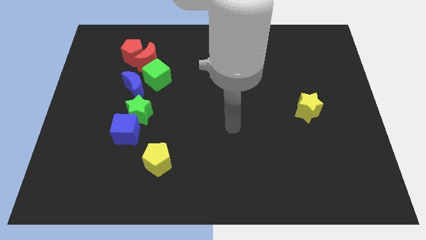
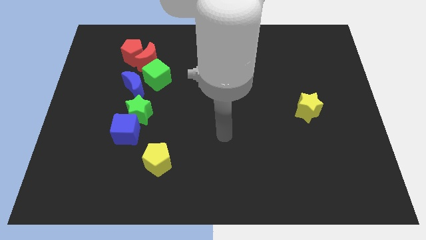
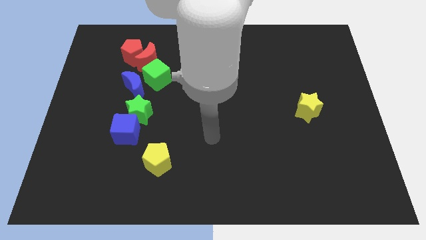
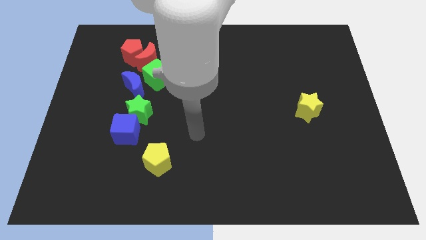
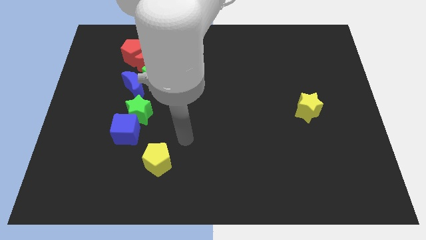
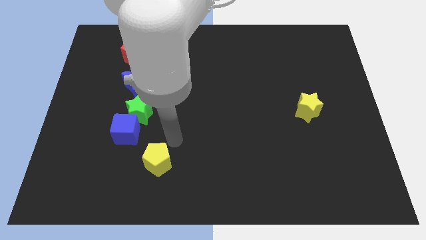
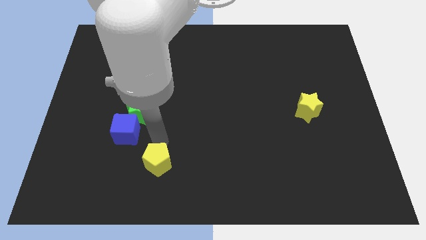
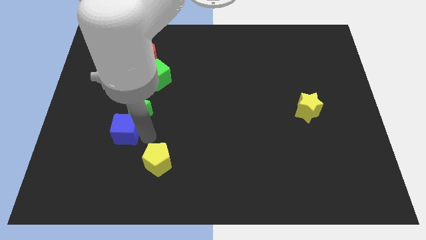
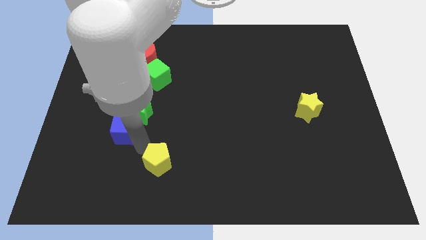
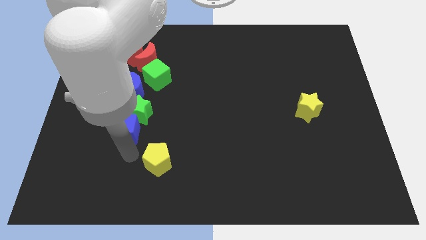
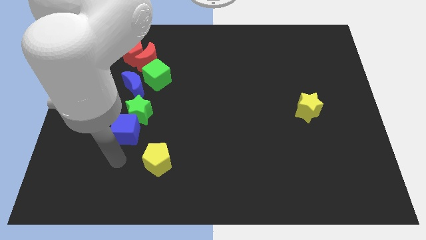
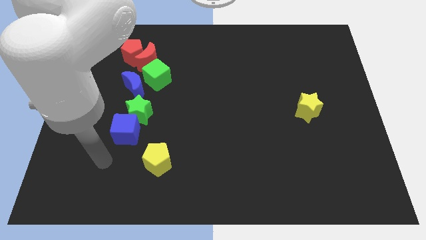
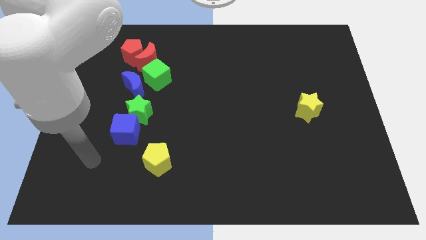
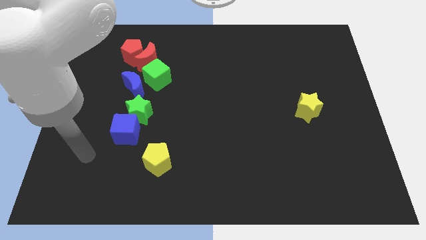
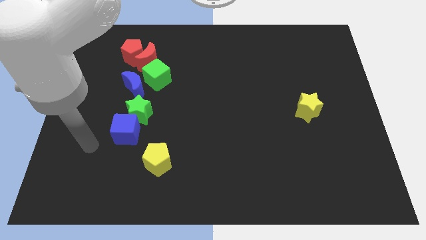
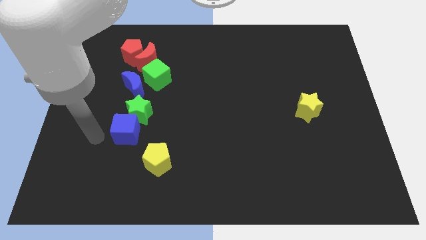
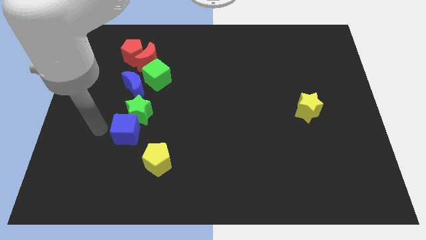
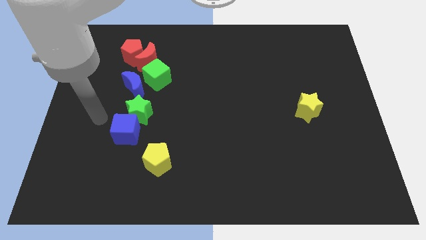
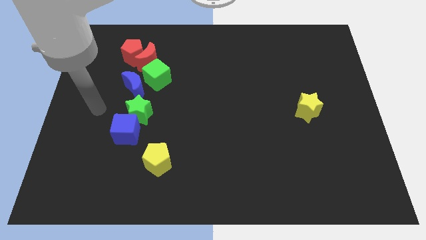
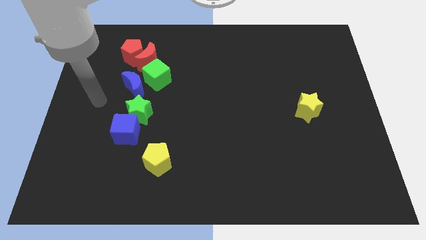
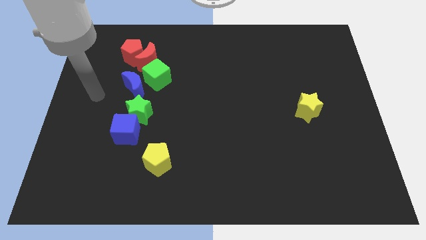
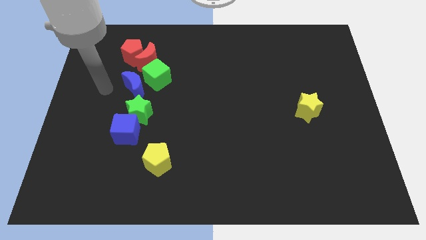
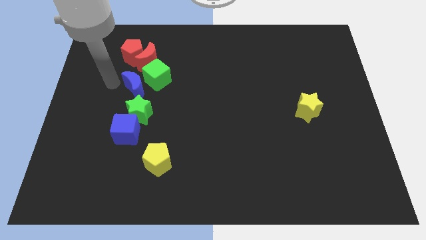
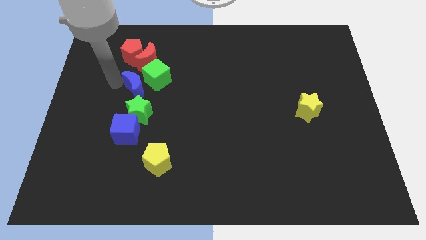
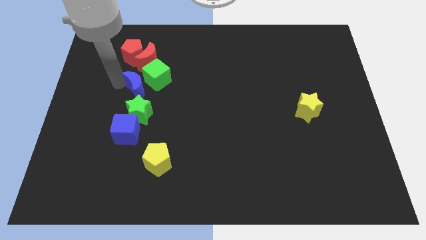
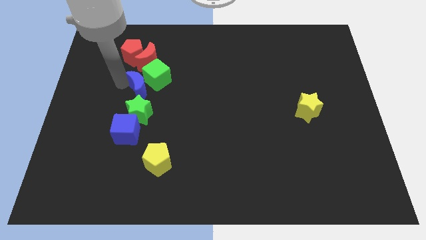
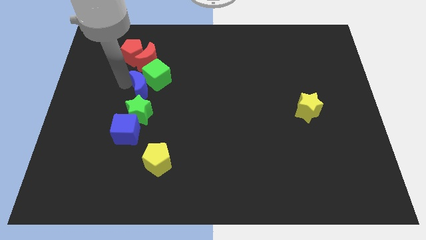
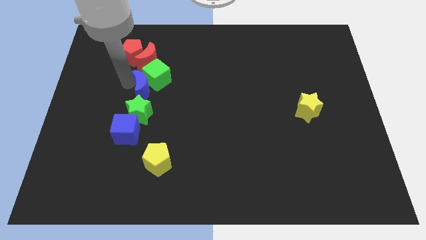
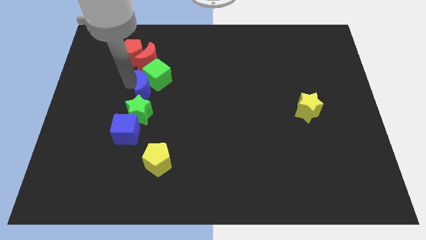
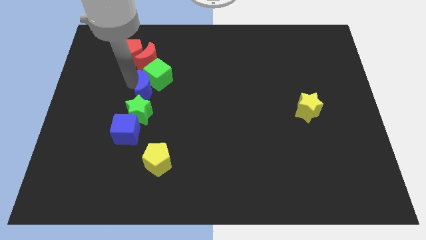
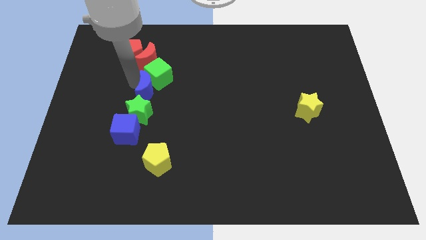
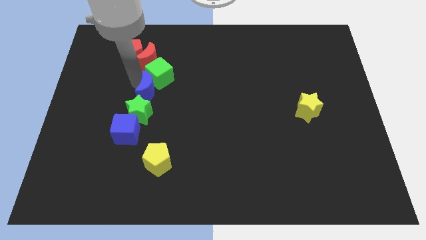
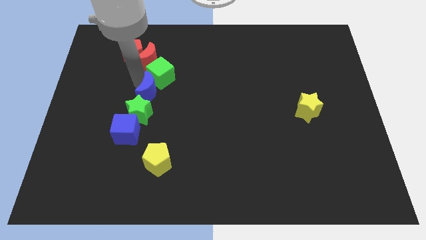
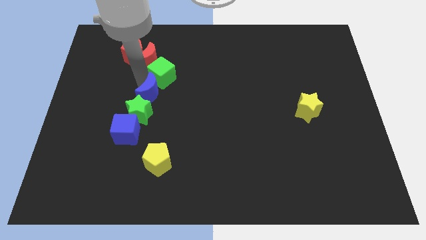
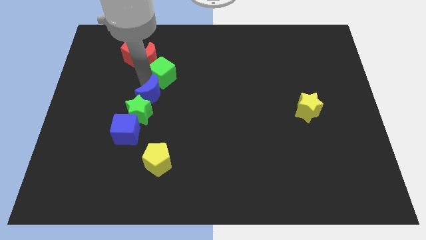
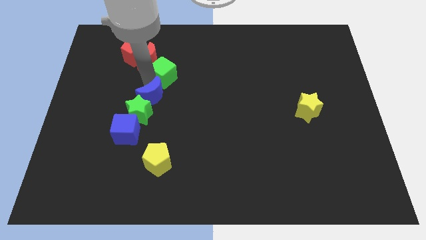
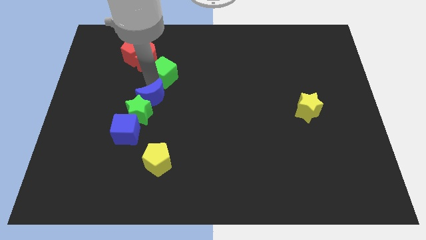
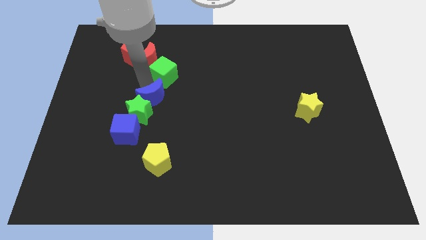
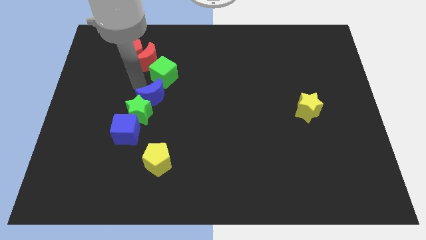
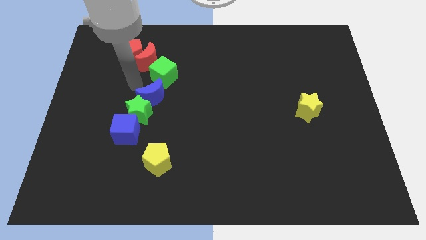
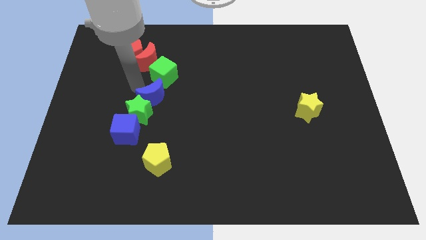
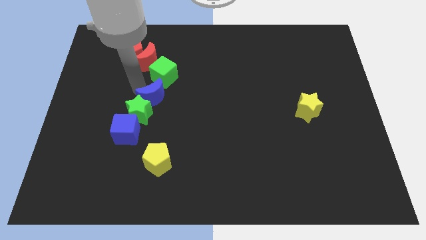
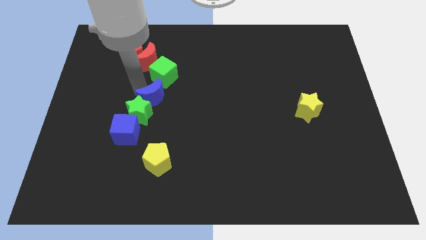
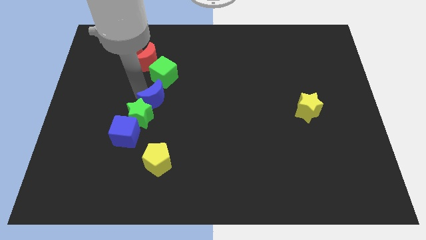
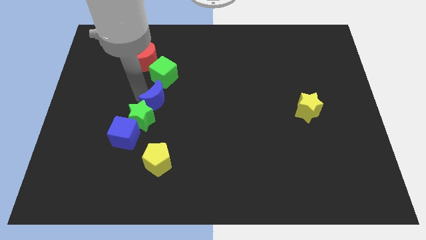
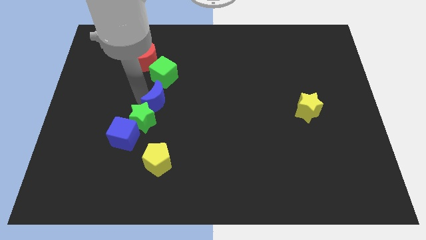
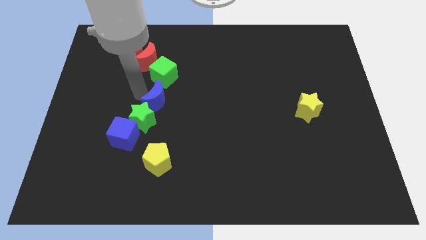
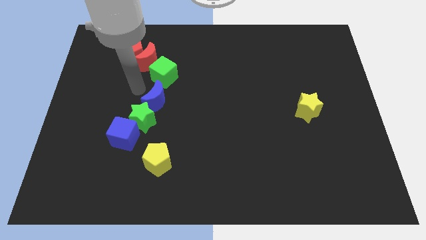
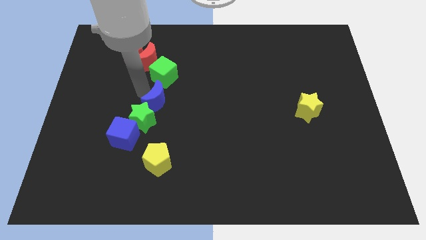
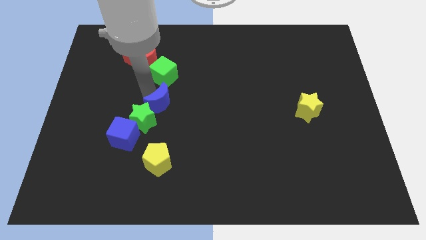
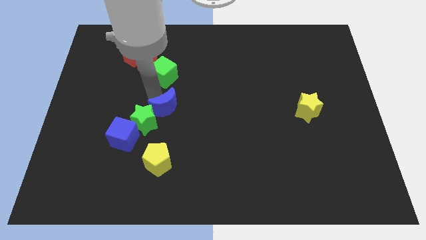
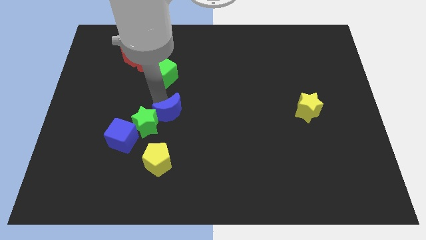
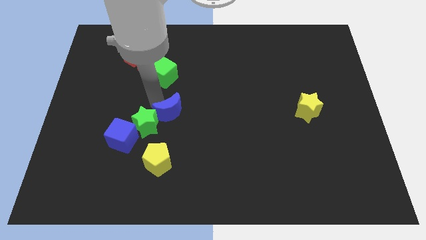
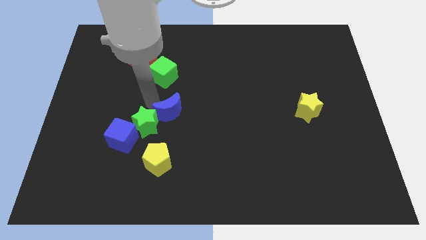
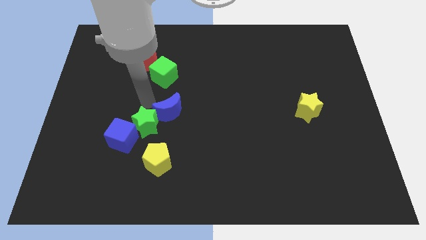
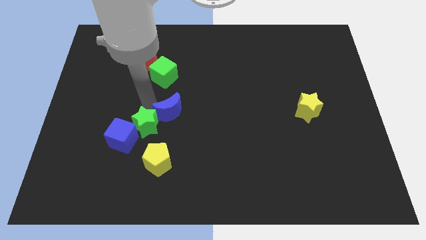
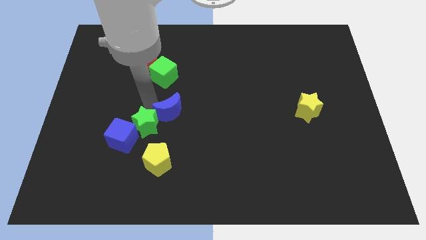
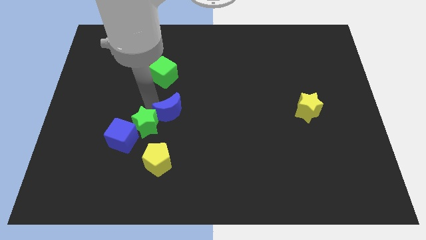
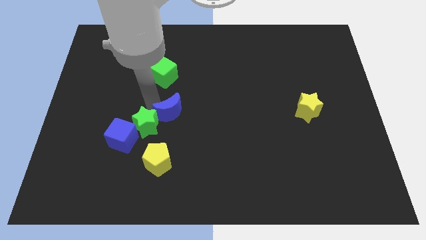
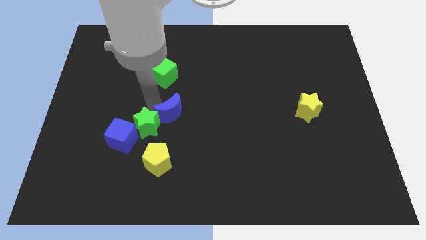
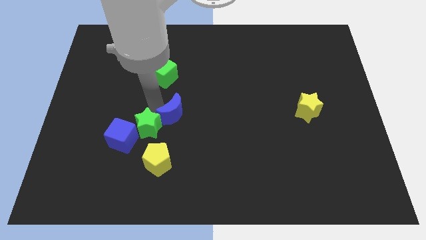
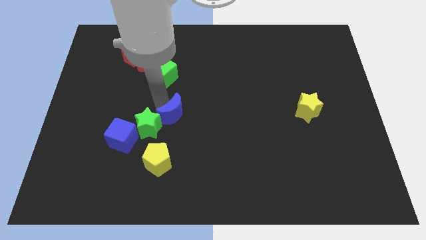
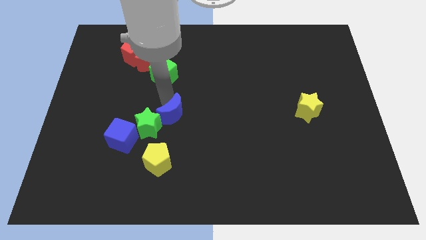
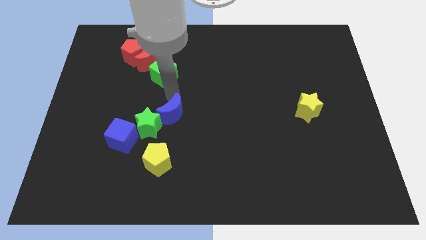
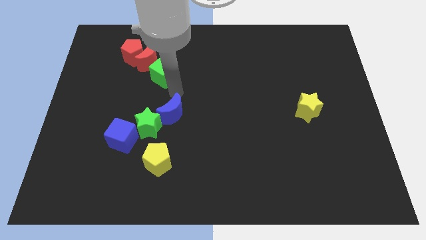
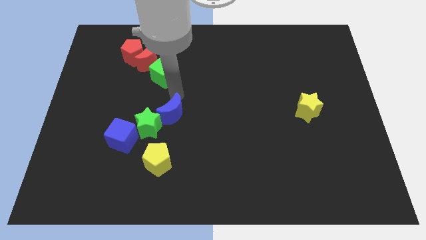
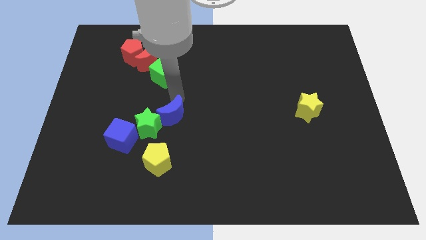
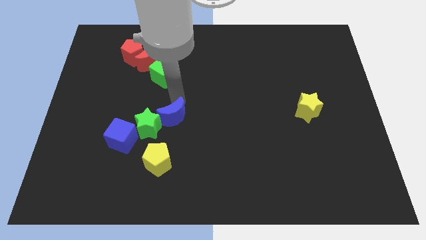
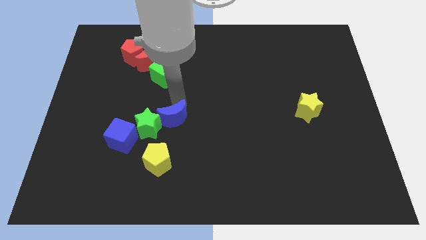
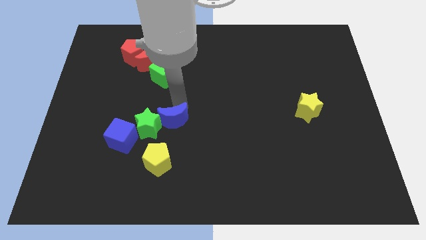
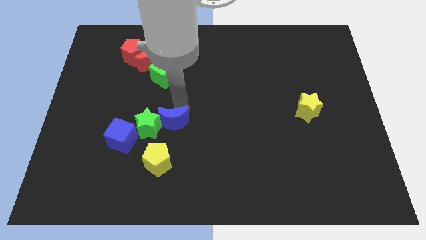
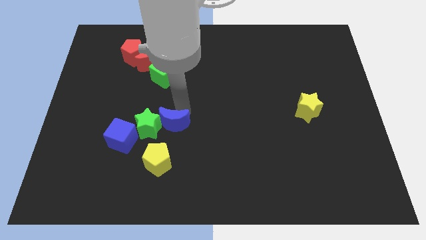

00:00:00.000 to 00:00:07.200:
push the blue moon diagonally down and to the right of the green star

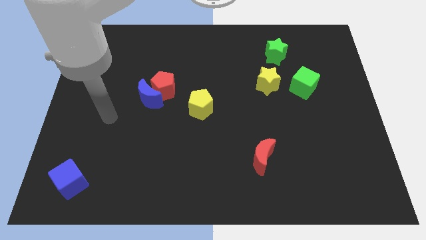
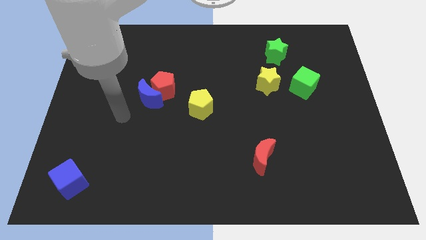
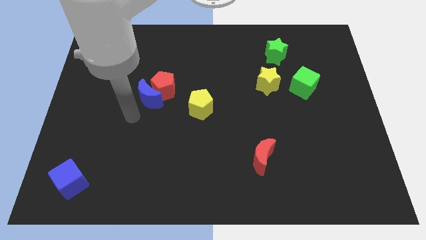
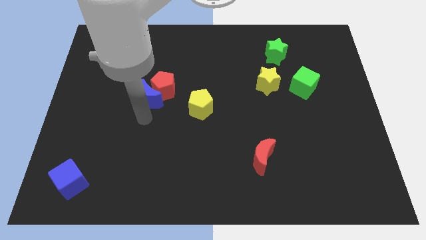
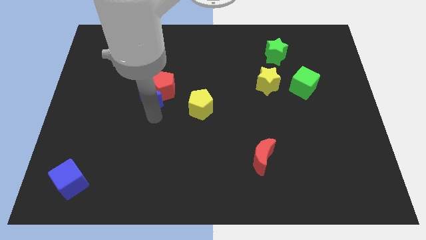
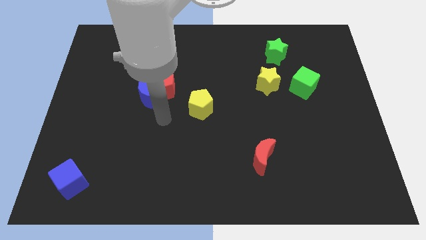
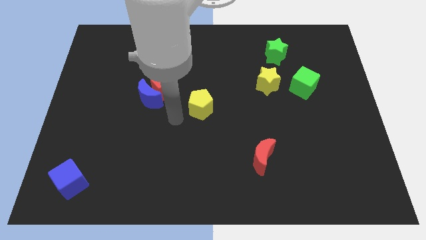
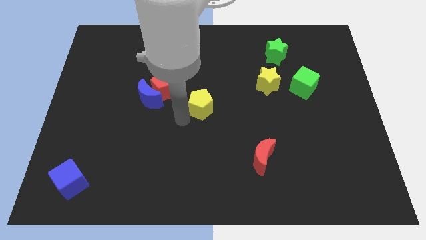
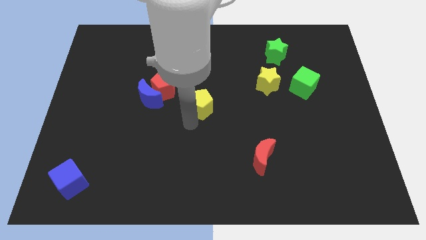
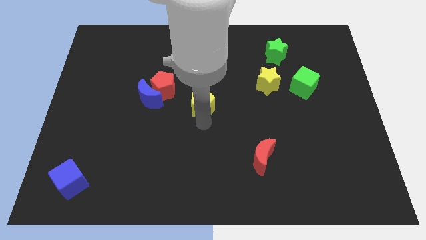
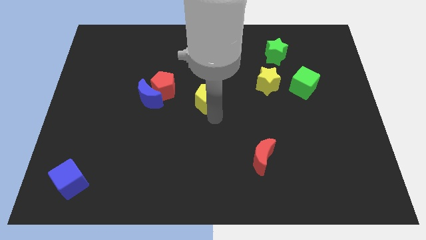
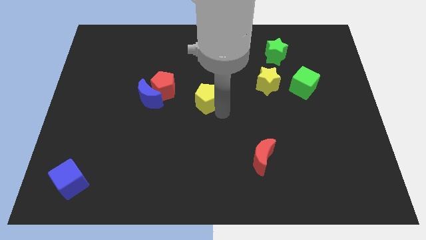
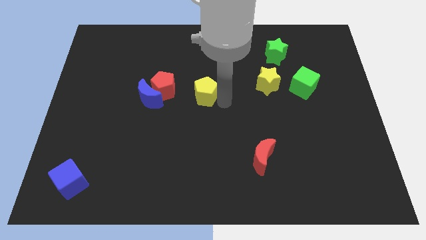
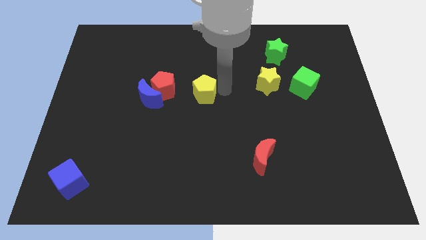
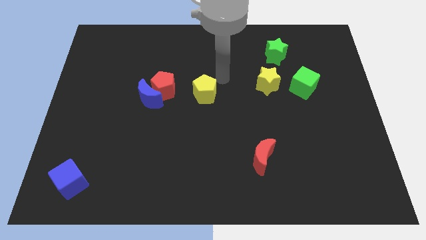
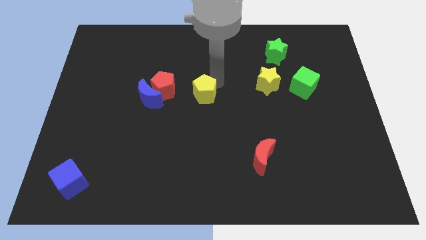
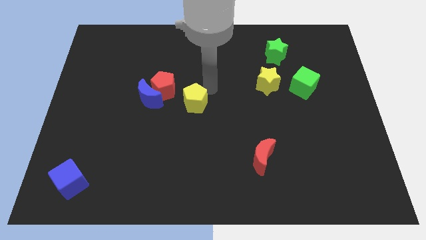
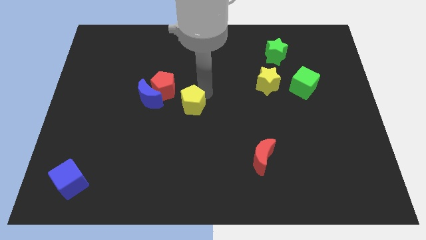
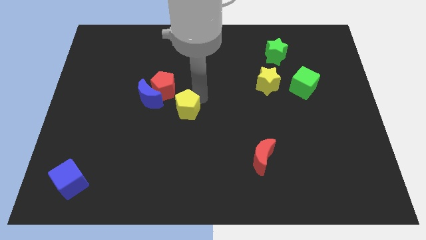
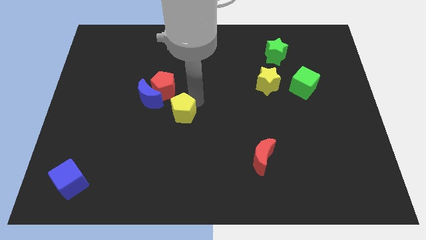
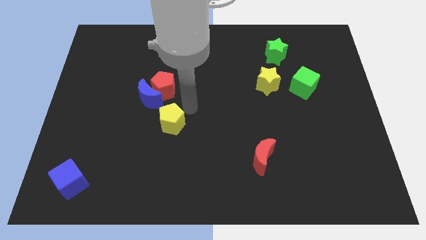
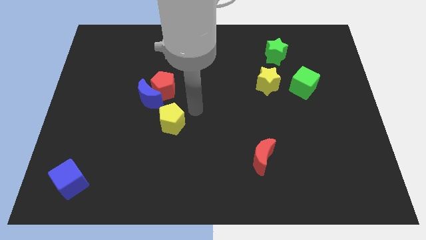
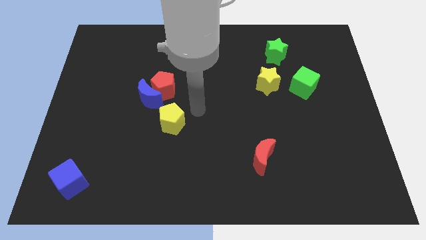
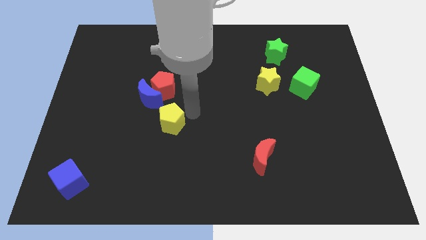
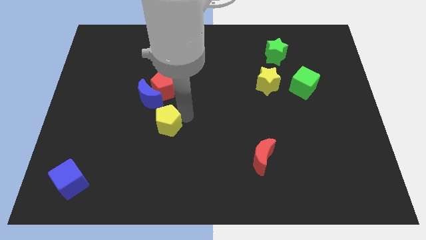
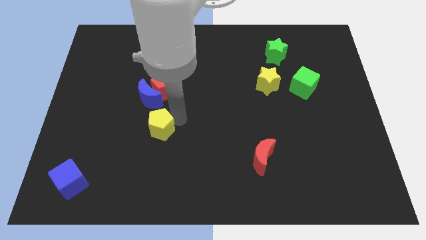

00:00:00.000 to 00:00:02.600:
put the yellow pentagon to the bottom of the blue moon
